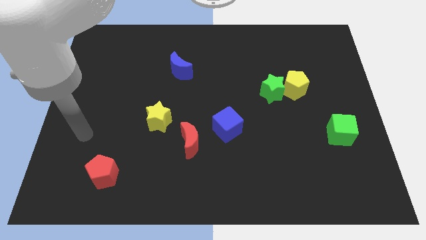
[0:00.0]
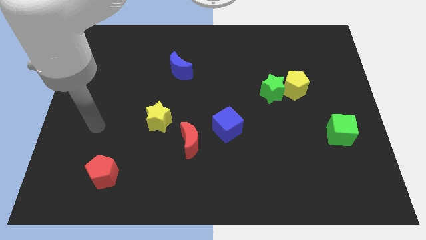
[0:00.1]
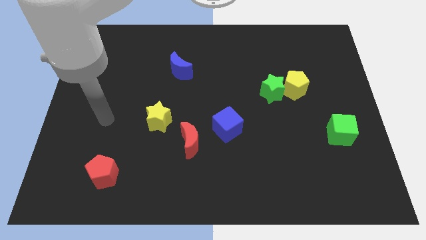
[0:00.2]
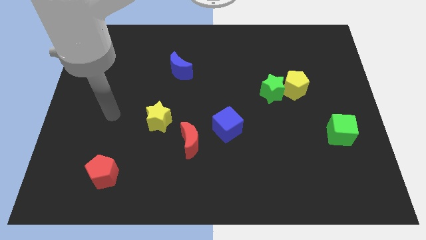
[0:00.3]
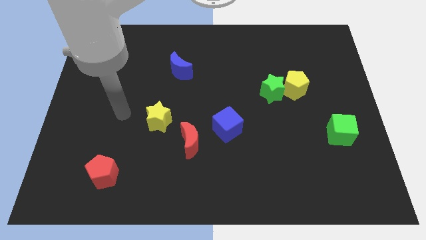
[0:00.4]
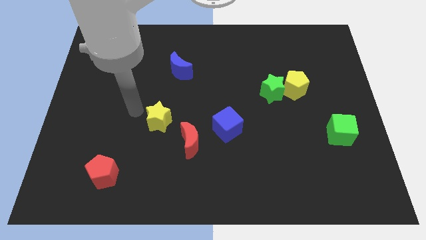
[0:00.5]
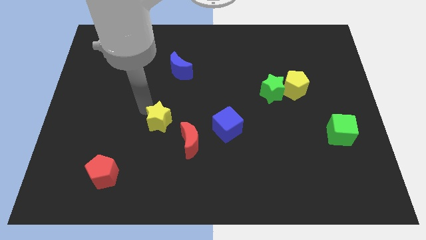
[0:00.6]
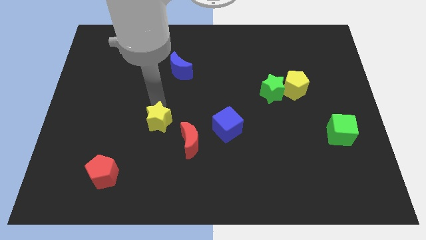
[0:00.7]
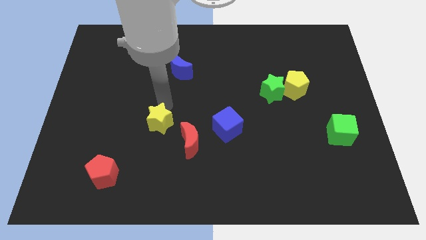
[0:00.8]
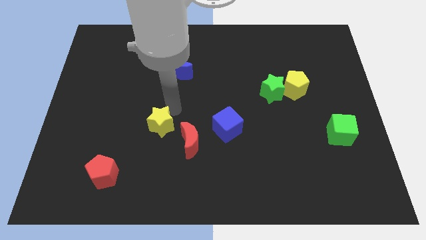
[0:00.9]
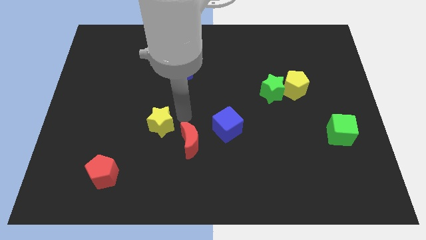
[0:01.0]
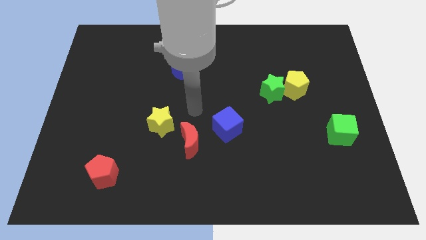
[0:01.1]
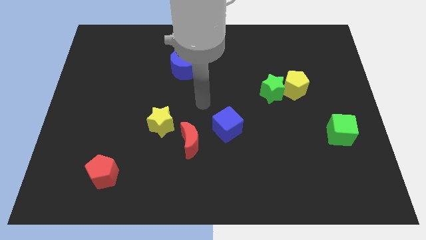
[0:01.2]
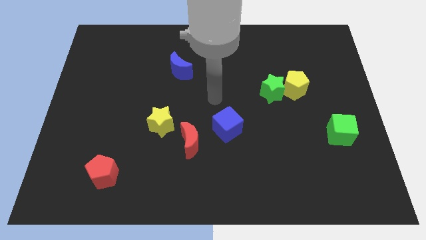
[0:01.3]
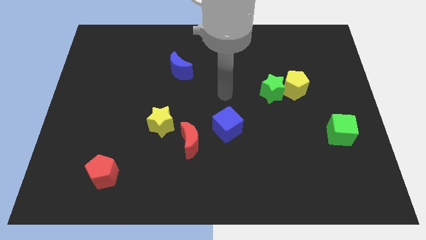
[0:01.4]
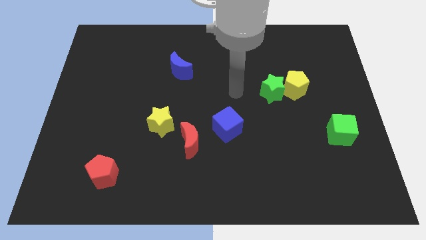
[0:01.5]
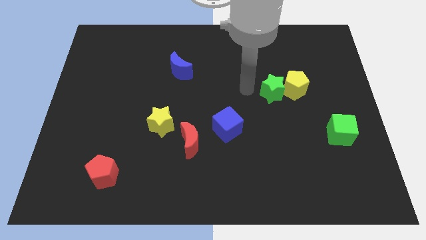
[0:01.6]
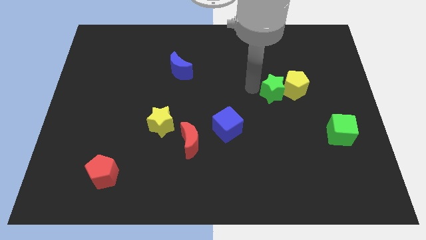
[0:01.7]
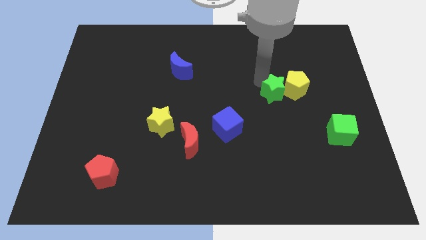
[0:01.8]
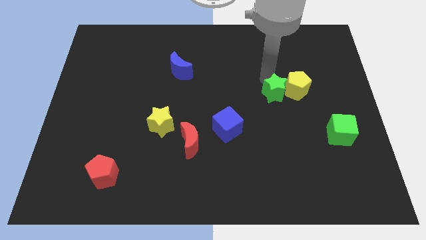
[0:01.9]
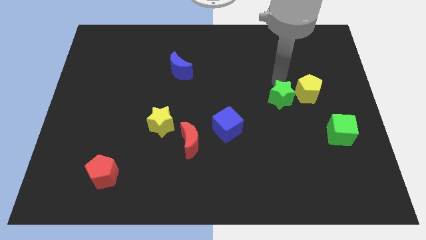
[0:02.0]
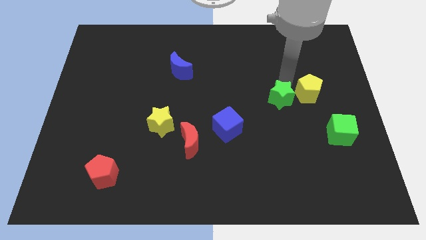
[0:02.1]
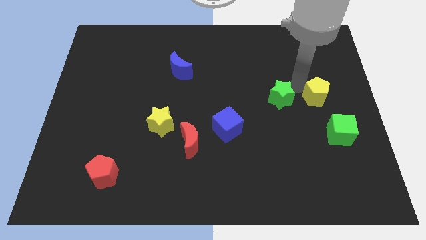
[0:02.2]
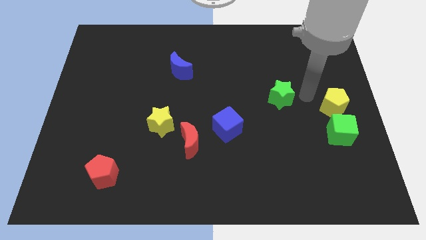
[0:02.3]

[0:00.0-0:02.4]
move the green star away from the yellow pentagon

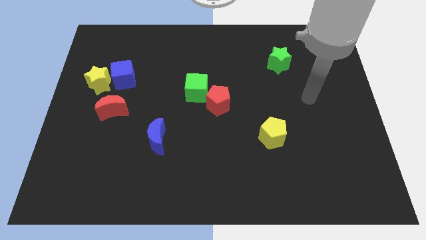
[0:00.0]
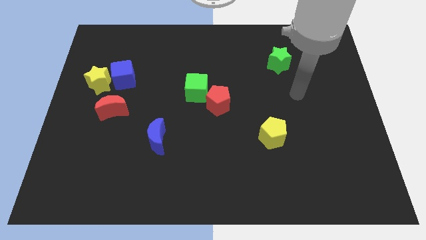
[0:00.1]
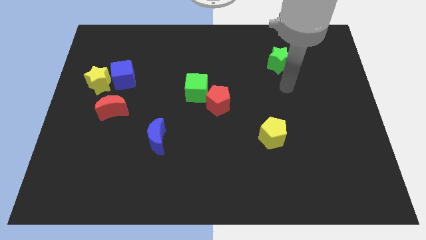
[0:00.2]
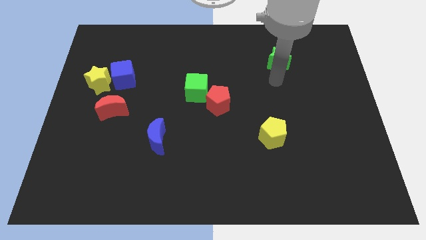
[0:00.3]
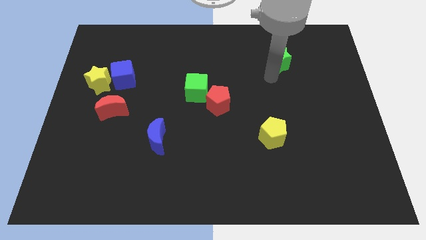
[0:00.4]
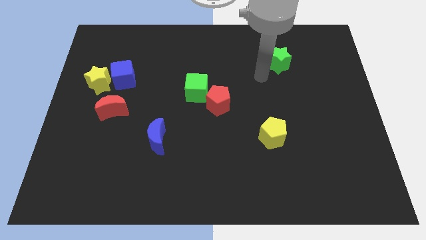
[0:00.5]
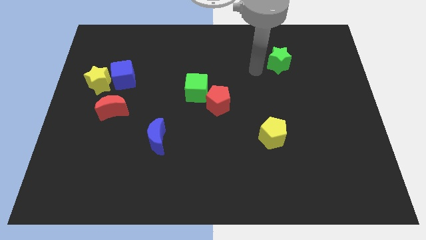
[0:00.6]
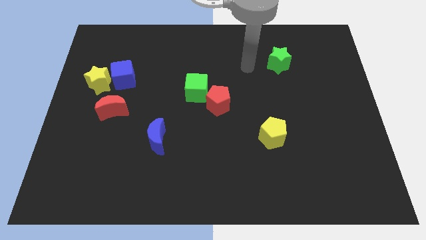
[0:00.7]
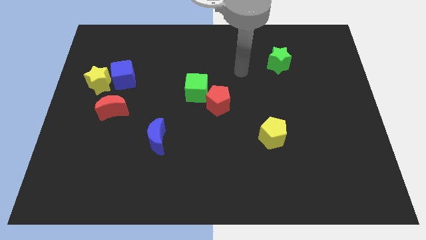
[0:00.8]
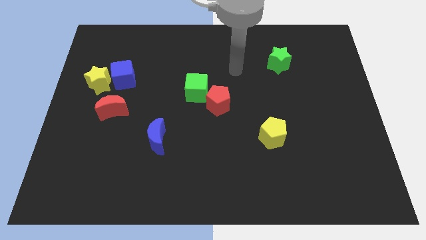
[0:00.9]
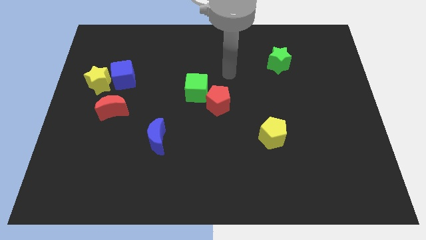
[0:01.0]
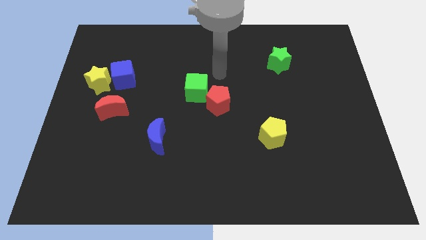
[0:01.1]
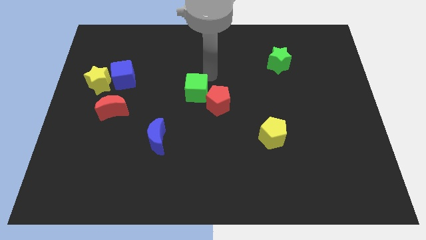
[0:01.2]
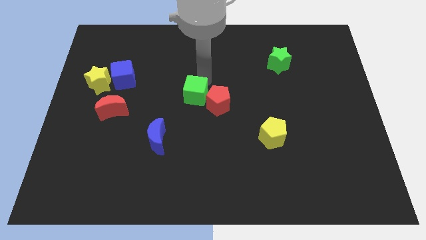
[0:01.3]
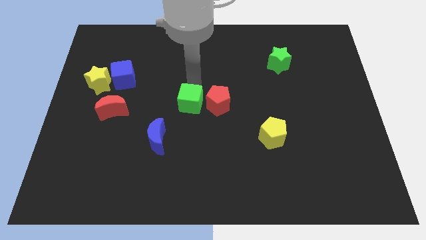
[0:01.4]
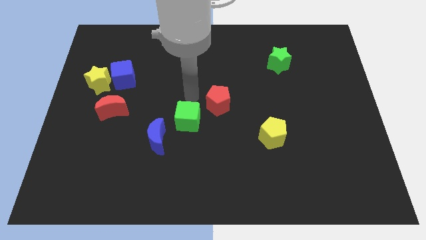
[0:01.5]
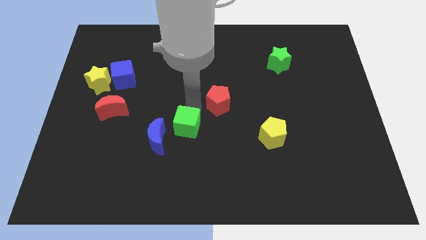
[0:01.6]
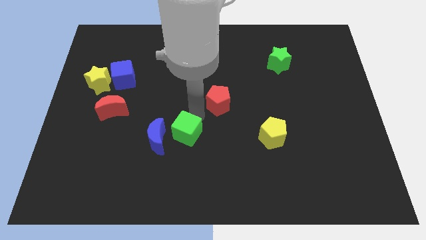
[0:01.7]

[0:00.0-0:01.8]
pull the red pentagon apart from the green cube

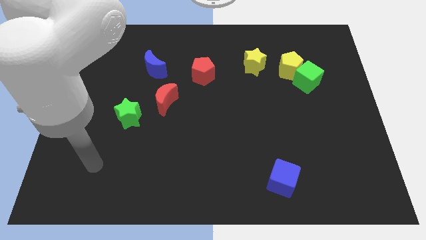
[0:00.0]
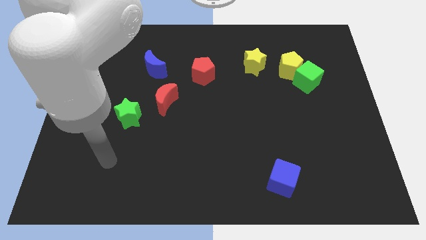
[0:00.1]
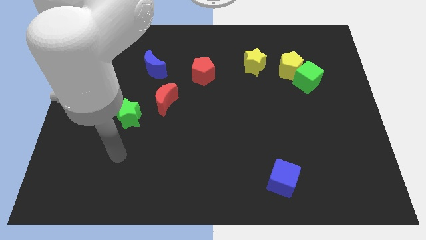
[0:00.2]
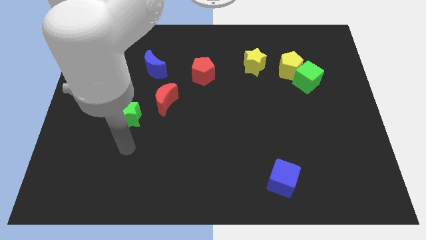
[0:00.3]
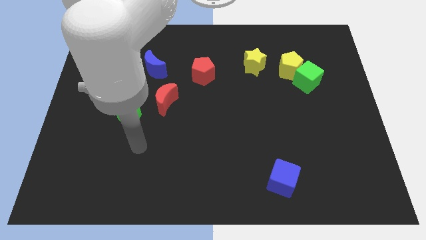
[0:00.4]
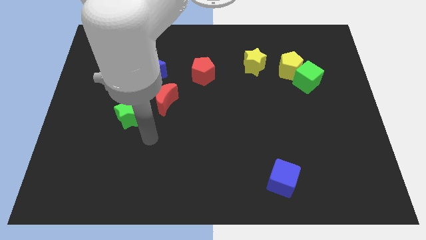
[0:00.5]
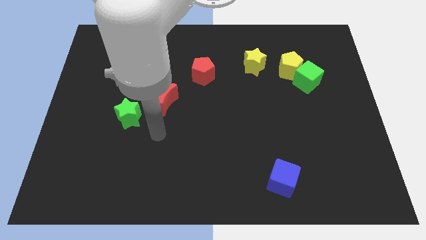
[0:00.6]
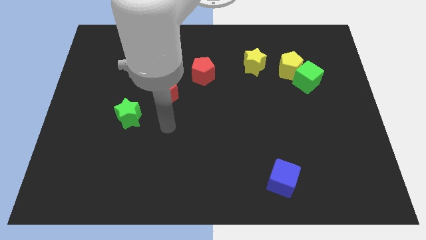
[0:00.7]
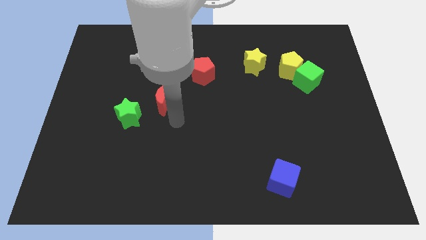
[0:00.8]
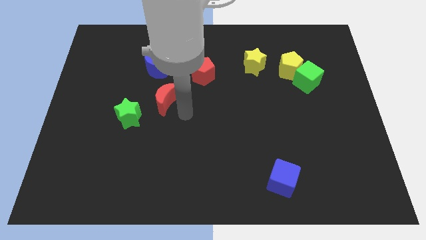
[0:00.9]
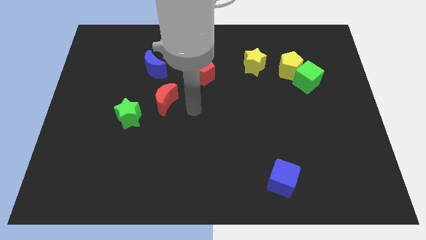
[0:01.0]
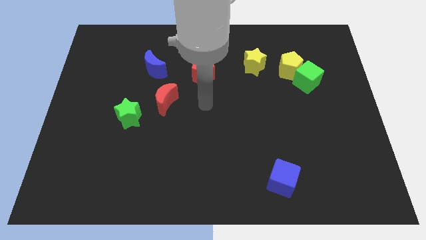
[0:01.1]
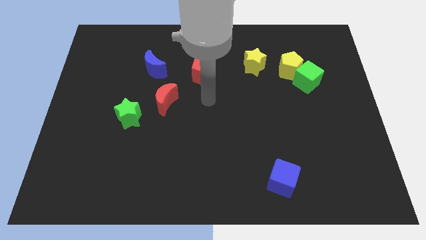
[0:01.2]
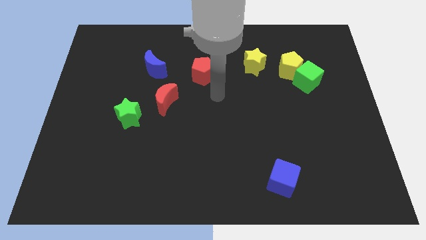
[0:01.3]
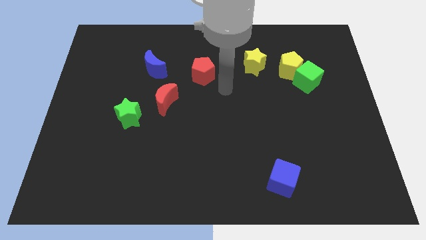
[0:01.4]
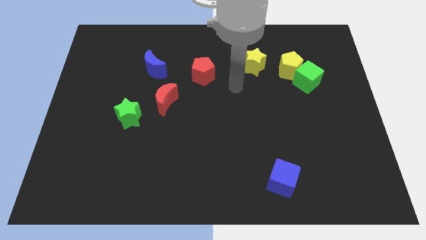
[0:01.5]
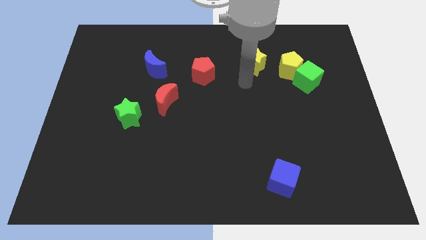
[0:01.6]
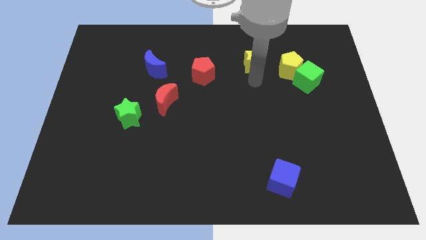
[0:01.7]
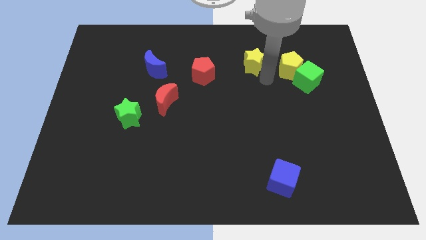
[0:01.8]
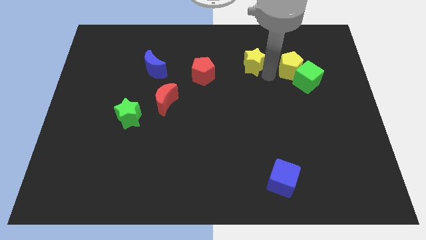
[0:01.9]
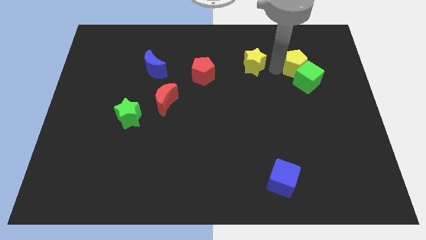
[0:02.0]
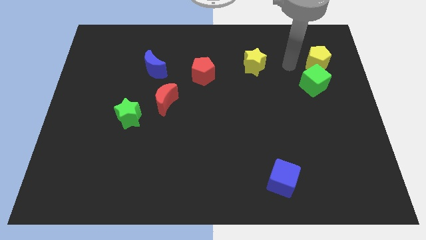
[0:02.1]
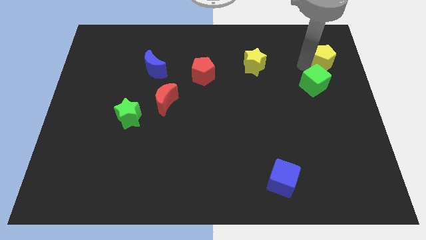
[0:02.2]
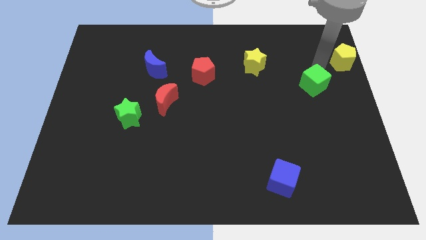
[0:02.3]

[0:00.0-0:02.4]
separate the green cube from the yellow pentagon

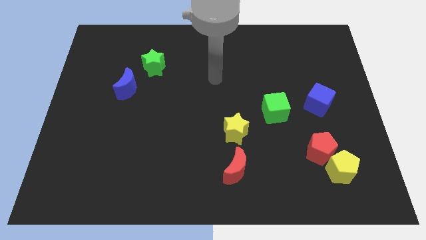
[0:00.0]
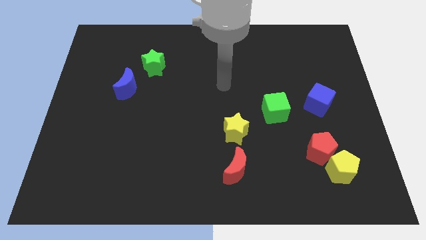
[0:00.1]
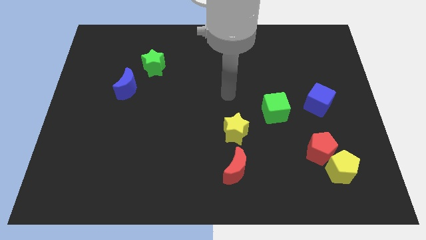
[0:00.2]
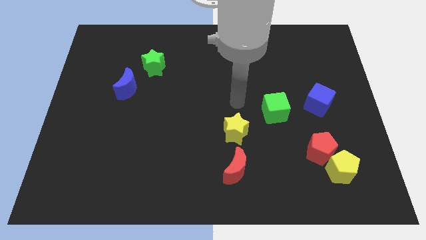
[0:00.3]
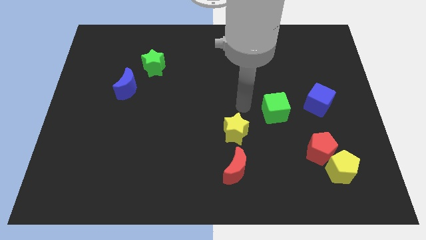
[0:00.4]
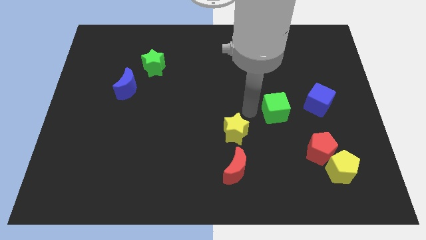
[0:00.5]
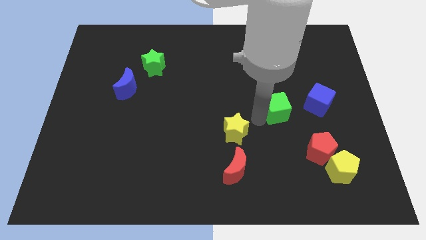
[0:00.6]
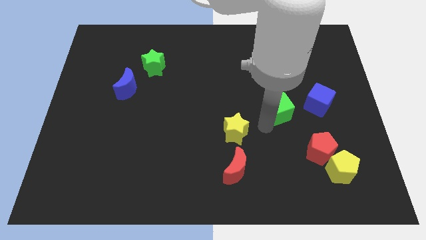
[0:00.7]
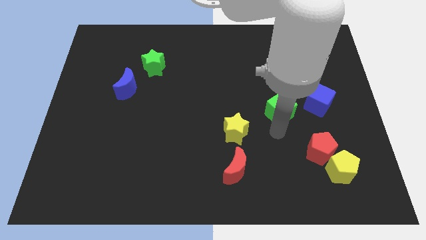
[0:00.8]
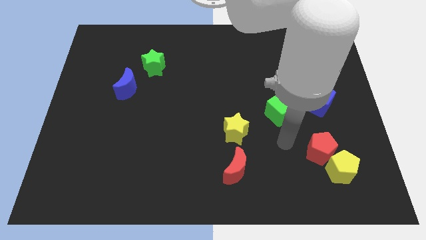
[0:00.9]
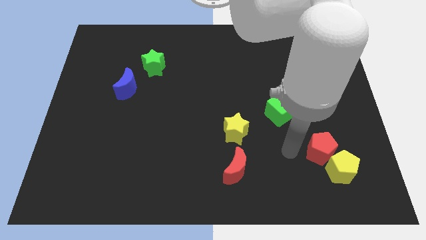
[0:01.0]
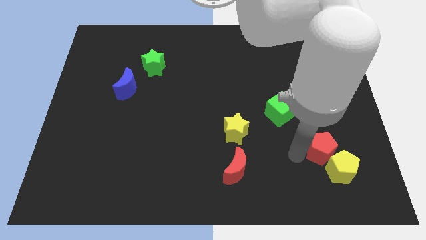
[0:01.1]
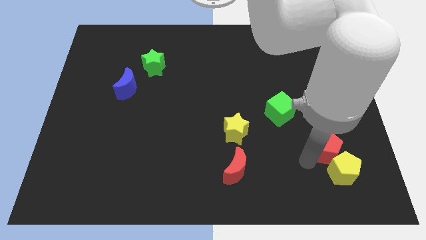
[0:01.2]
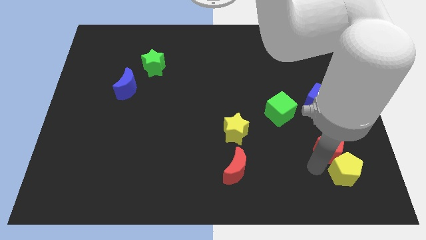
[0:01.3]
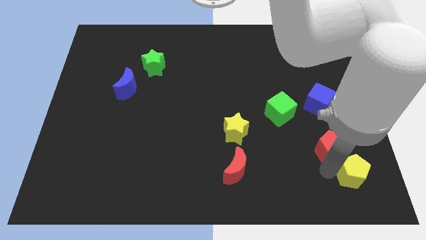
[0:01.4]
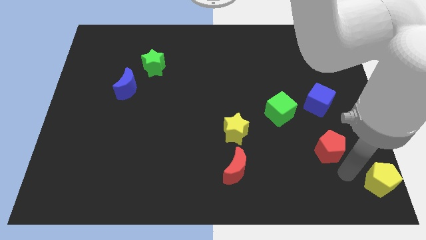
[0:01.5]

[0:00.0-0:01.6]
pull the red pentagon apart from the yellow pentagon

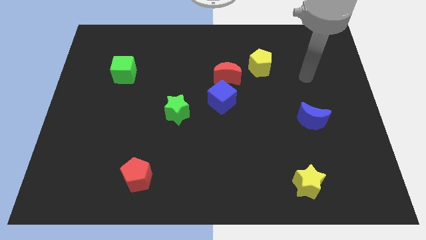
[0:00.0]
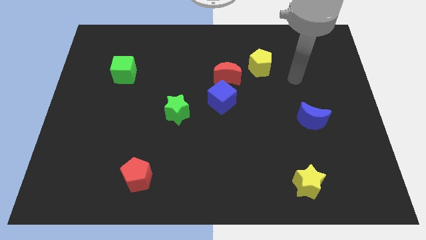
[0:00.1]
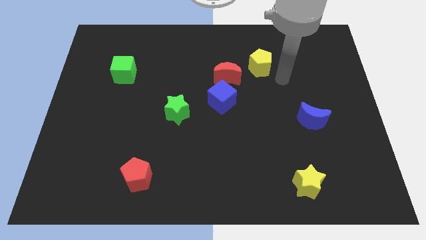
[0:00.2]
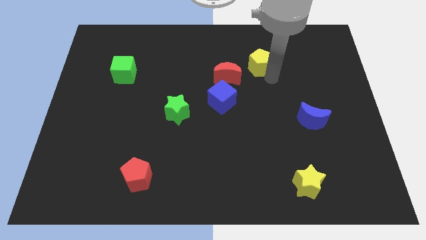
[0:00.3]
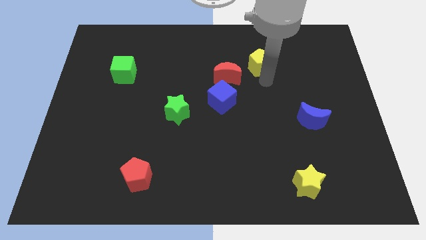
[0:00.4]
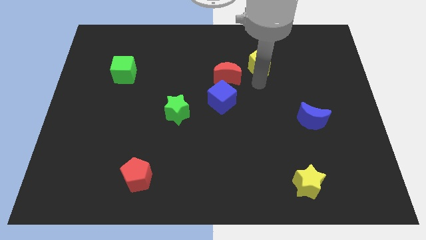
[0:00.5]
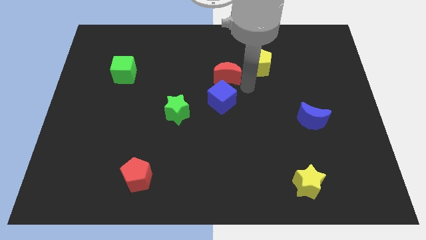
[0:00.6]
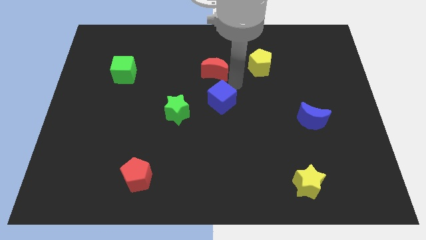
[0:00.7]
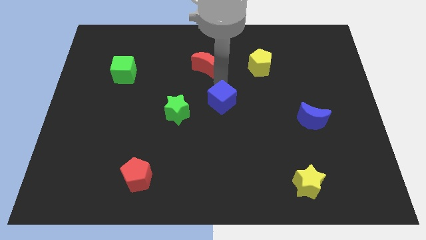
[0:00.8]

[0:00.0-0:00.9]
move the blue cube away from the red moon

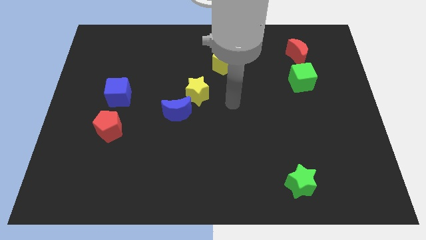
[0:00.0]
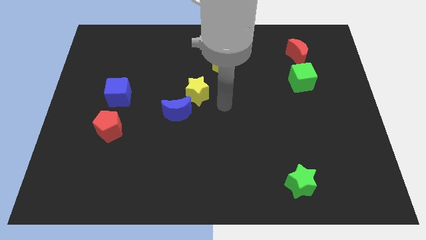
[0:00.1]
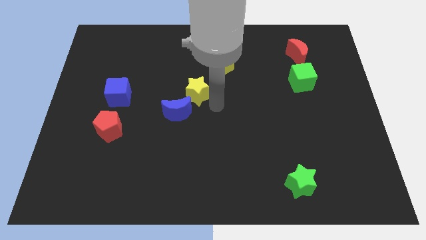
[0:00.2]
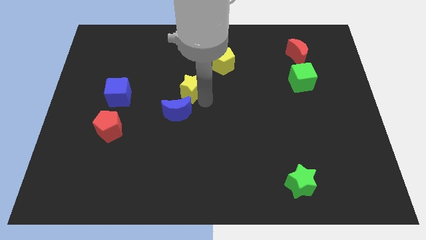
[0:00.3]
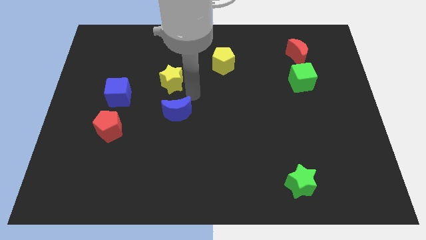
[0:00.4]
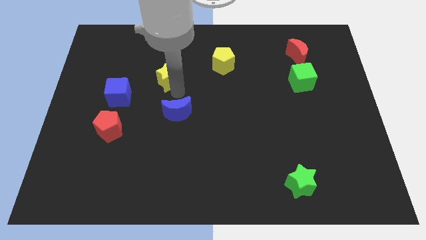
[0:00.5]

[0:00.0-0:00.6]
pull the blue moon apart from the yellow star
